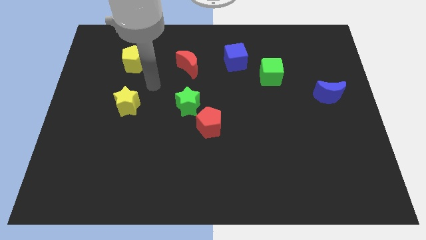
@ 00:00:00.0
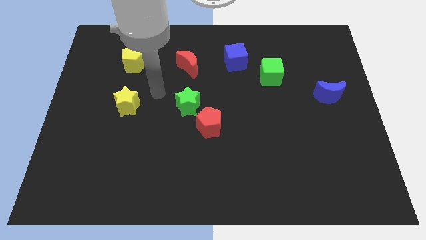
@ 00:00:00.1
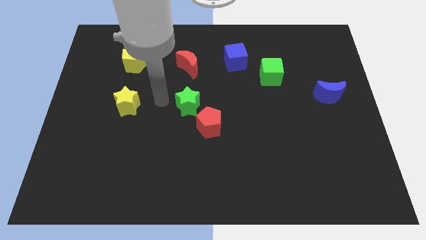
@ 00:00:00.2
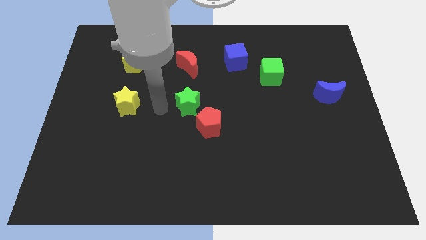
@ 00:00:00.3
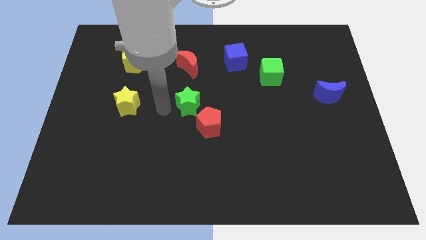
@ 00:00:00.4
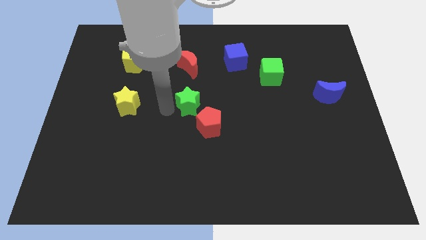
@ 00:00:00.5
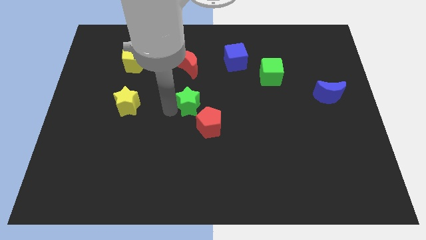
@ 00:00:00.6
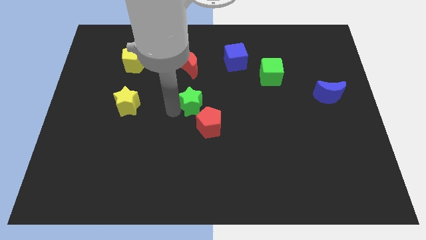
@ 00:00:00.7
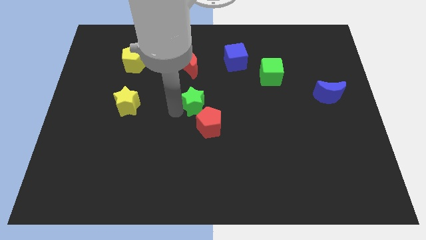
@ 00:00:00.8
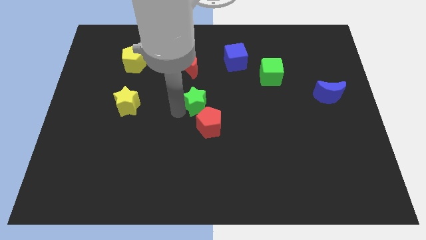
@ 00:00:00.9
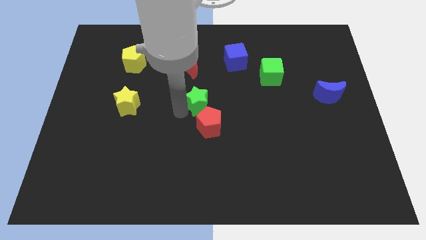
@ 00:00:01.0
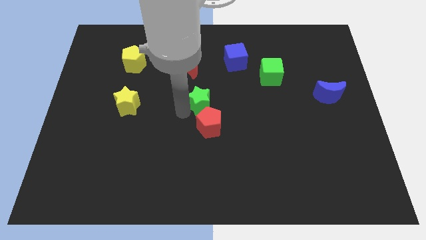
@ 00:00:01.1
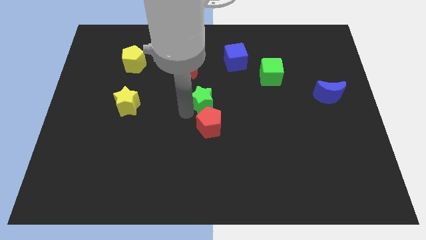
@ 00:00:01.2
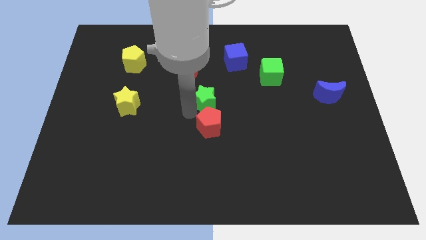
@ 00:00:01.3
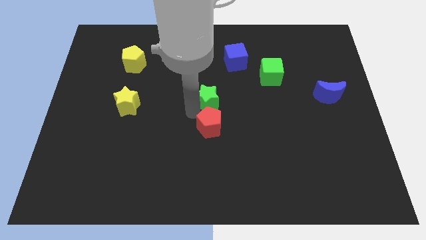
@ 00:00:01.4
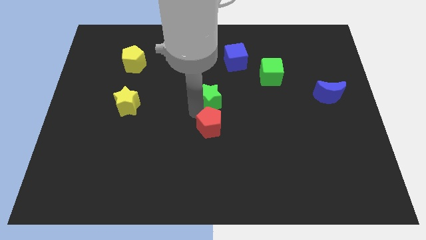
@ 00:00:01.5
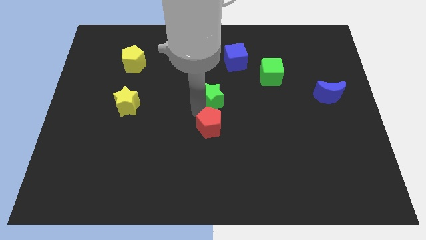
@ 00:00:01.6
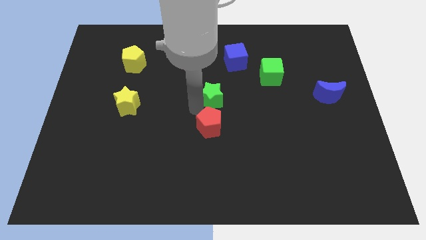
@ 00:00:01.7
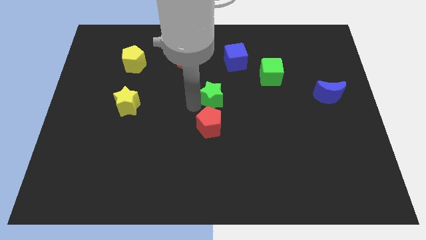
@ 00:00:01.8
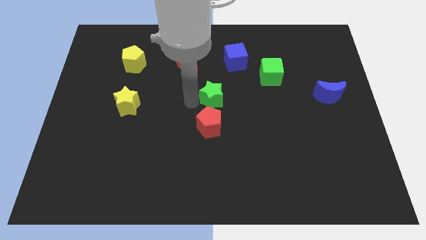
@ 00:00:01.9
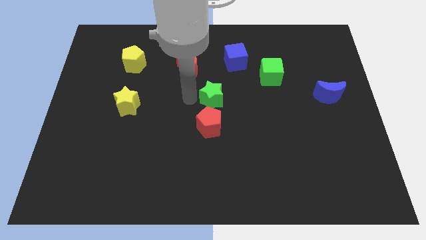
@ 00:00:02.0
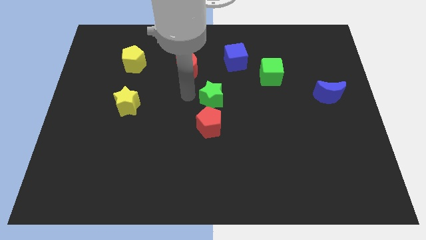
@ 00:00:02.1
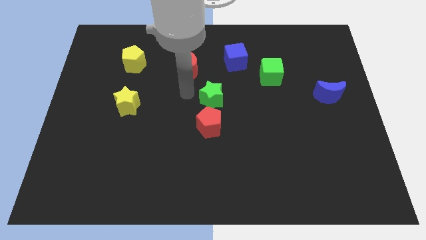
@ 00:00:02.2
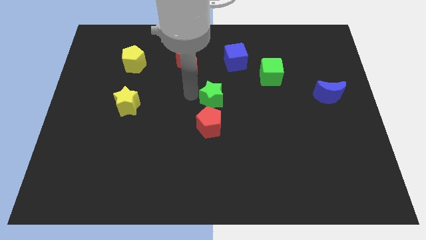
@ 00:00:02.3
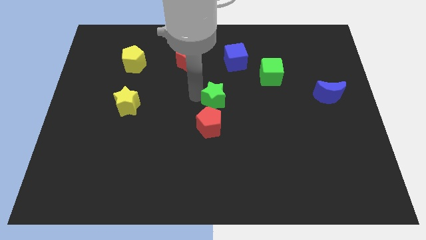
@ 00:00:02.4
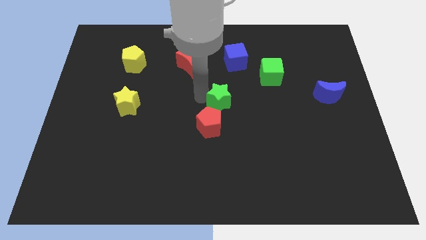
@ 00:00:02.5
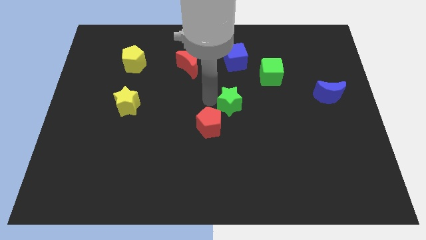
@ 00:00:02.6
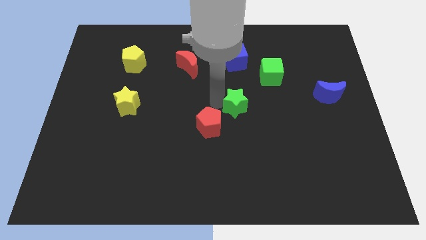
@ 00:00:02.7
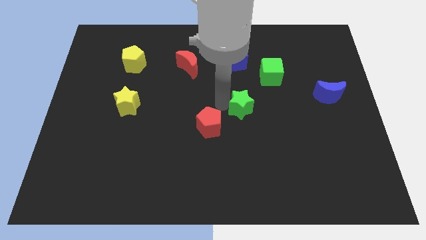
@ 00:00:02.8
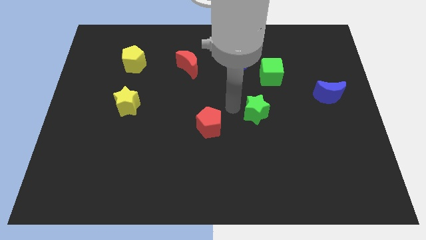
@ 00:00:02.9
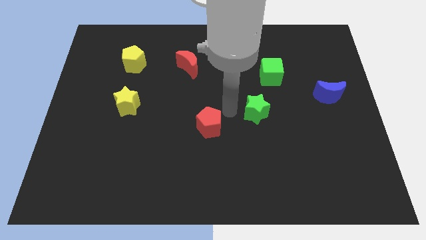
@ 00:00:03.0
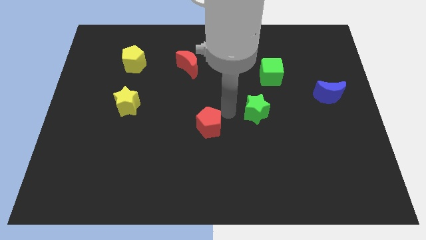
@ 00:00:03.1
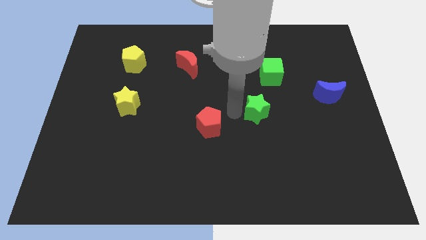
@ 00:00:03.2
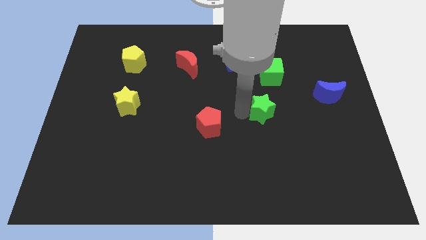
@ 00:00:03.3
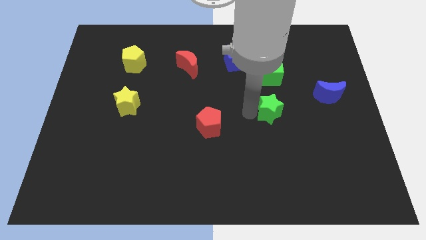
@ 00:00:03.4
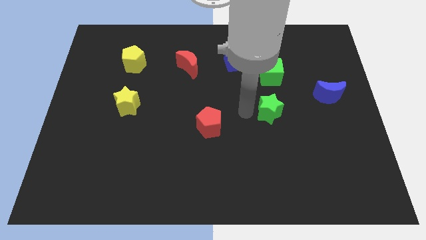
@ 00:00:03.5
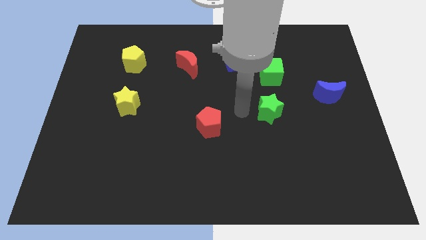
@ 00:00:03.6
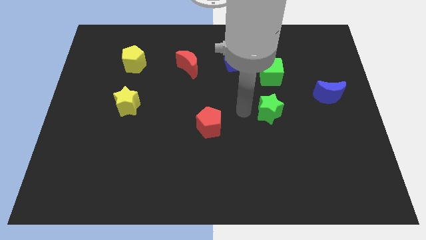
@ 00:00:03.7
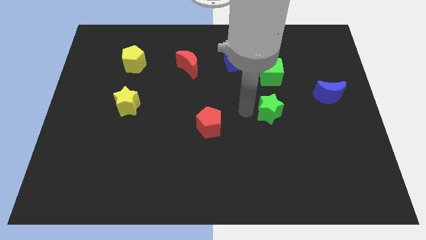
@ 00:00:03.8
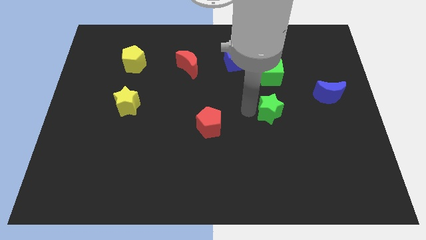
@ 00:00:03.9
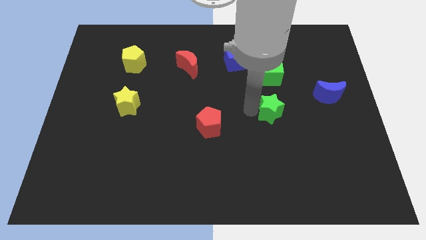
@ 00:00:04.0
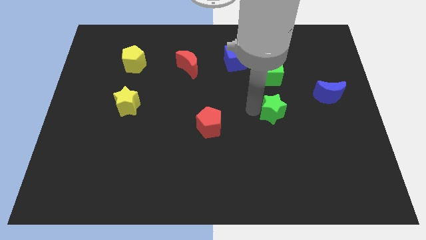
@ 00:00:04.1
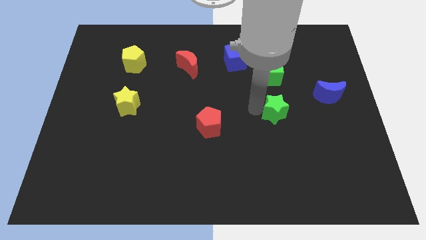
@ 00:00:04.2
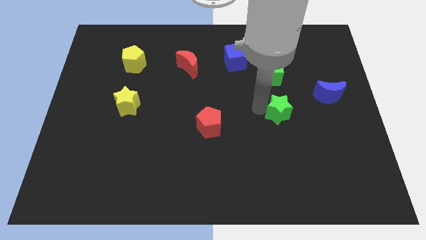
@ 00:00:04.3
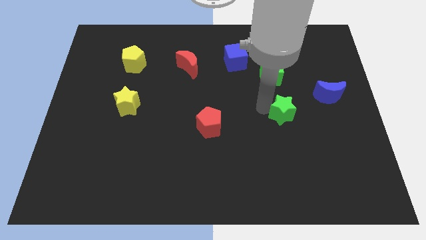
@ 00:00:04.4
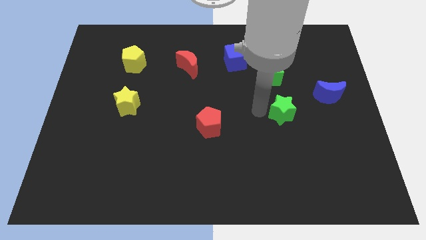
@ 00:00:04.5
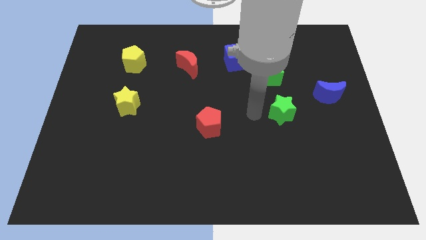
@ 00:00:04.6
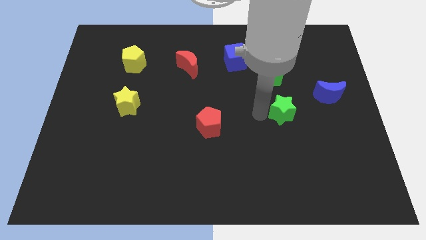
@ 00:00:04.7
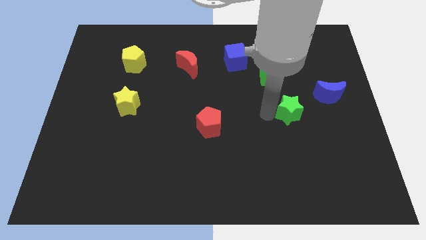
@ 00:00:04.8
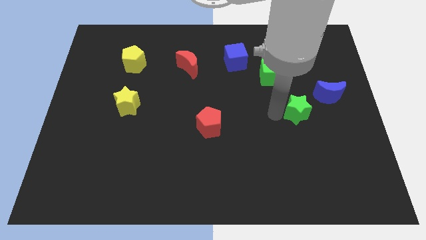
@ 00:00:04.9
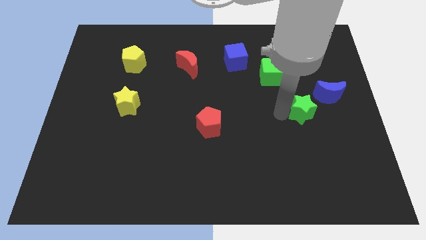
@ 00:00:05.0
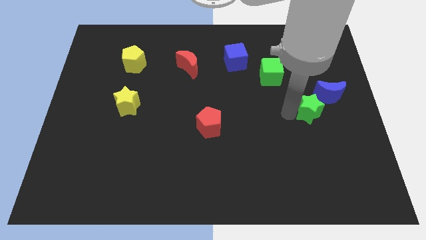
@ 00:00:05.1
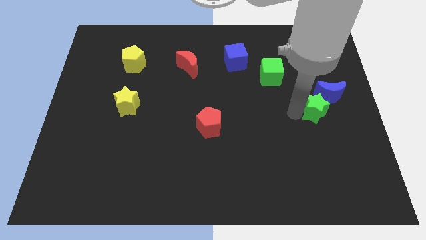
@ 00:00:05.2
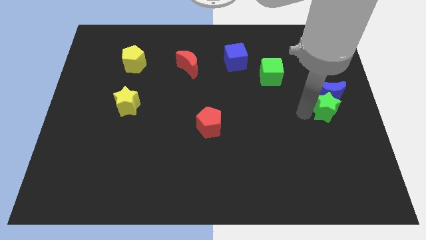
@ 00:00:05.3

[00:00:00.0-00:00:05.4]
slide the green star to the right side
